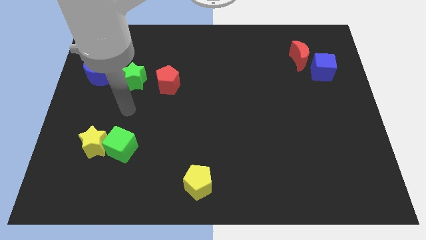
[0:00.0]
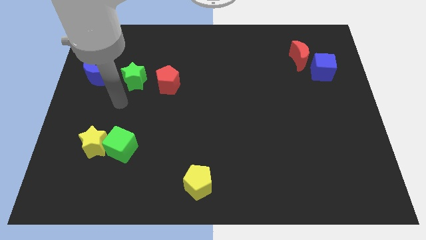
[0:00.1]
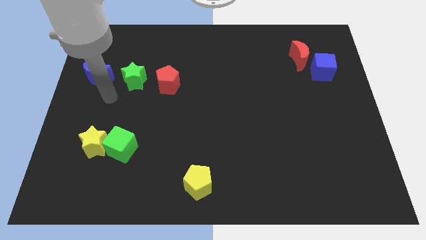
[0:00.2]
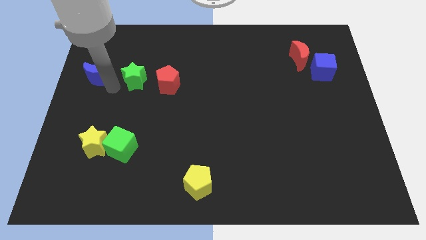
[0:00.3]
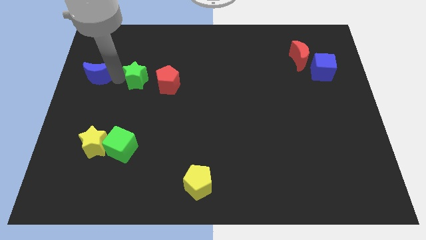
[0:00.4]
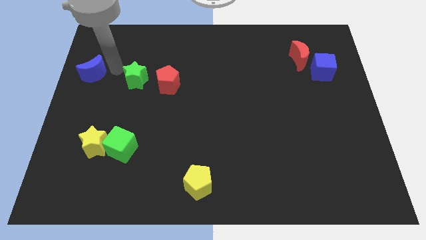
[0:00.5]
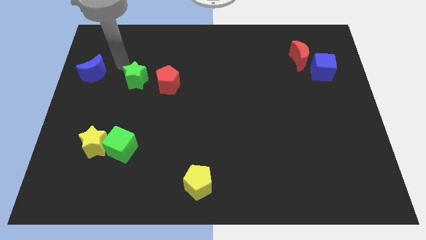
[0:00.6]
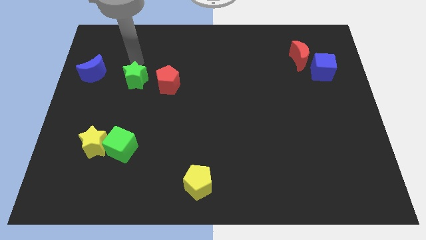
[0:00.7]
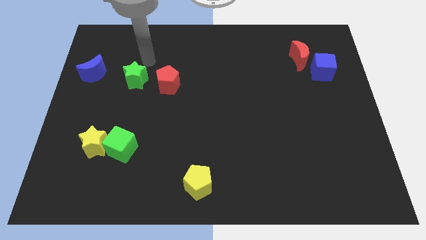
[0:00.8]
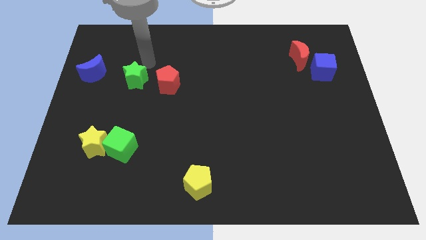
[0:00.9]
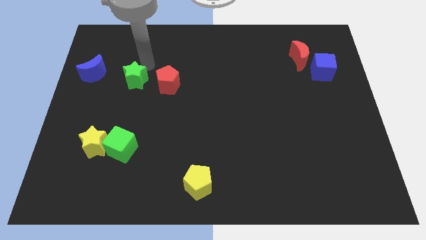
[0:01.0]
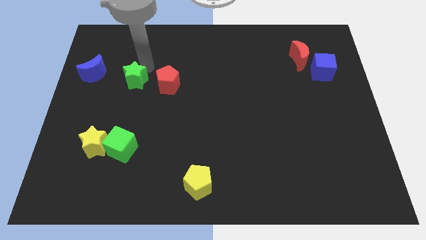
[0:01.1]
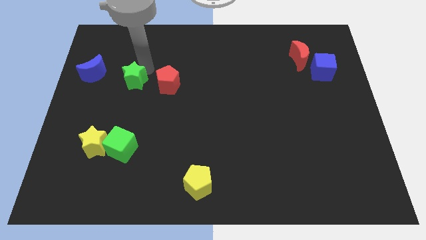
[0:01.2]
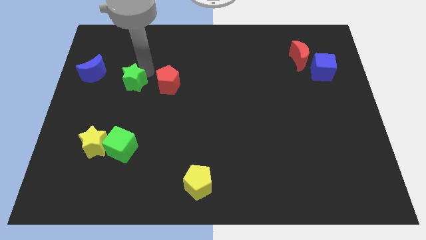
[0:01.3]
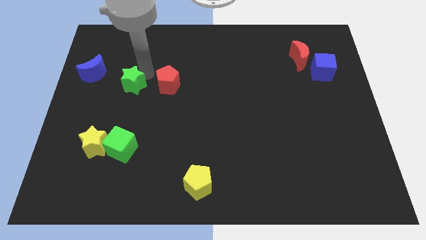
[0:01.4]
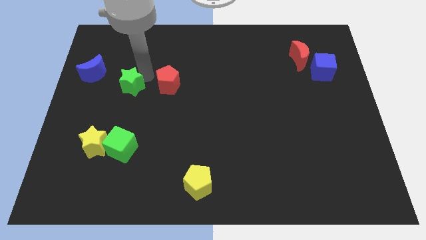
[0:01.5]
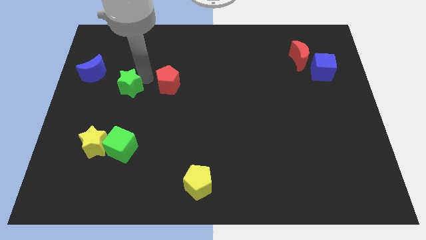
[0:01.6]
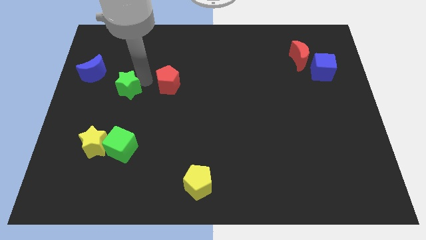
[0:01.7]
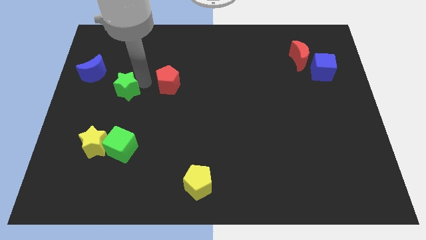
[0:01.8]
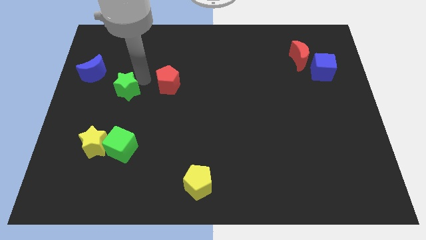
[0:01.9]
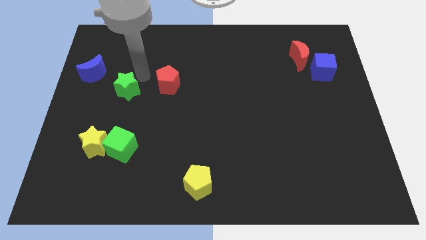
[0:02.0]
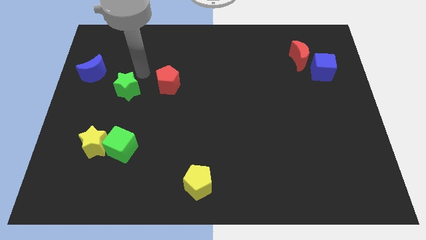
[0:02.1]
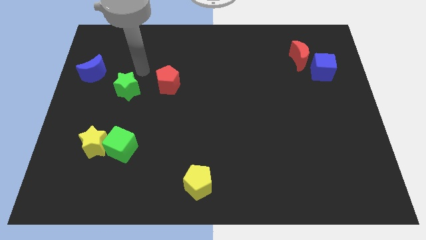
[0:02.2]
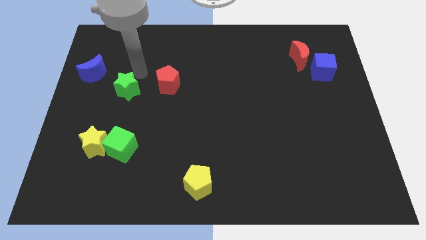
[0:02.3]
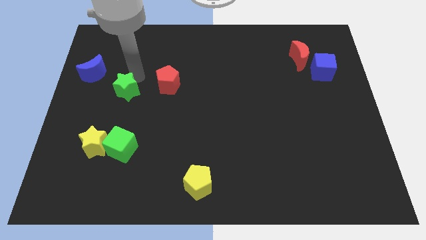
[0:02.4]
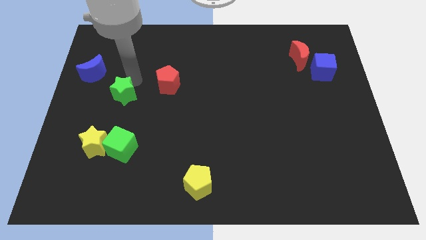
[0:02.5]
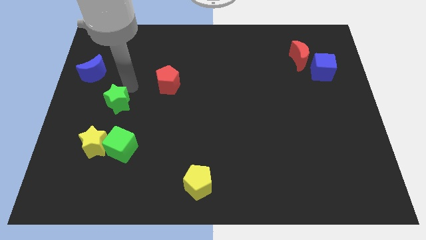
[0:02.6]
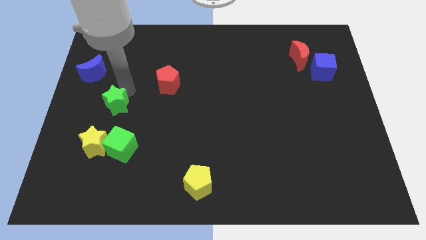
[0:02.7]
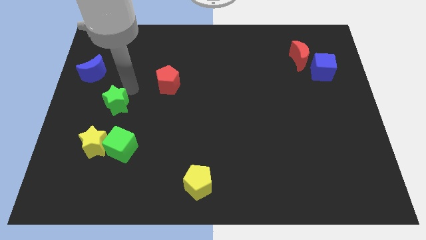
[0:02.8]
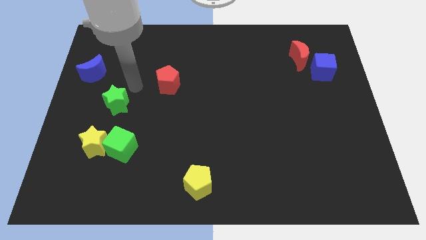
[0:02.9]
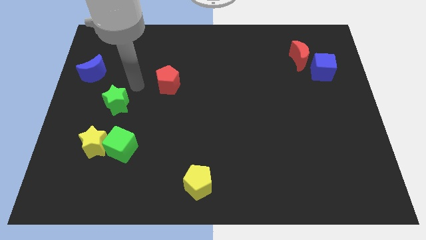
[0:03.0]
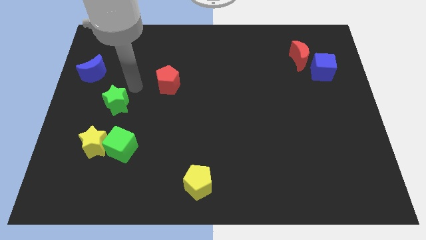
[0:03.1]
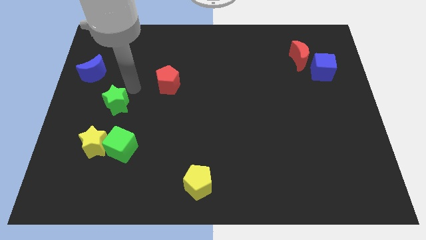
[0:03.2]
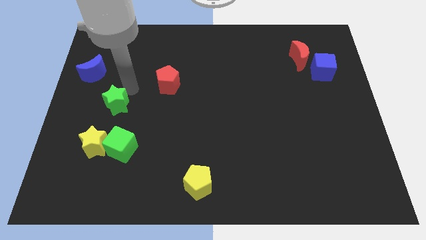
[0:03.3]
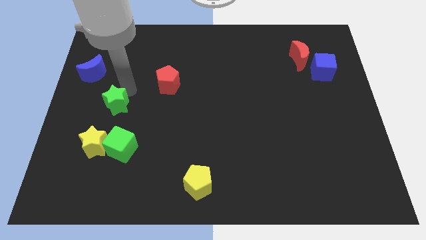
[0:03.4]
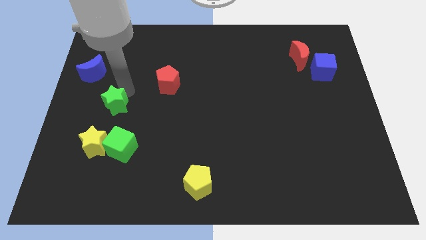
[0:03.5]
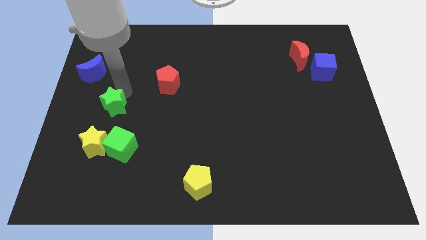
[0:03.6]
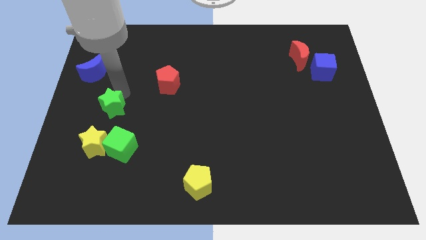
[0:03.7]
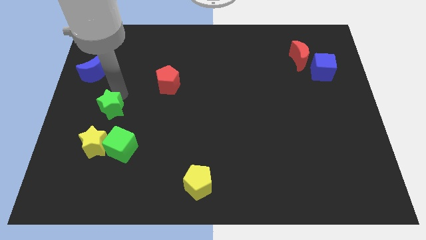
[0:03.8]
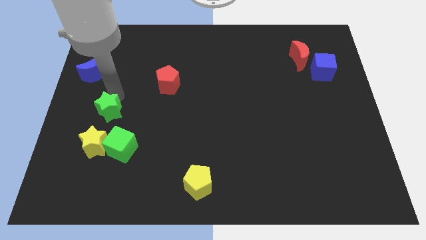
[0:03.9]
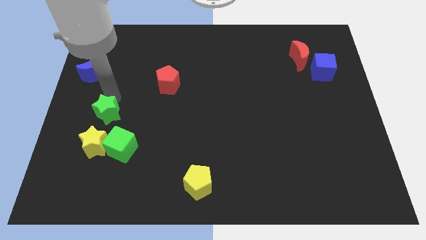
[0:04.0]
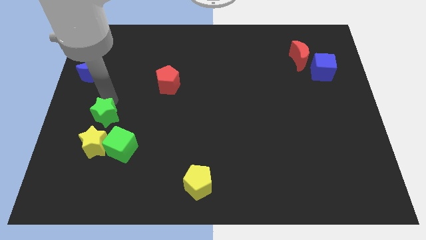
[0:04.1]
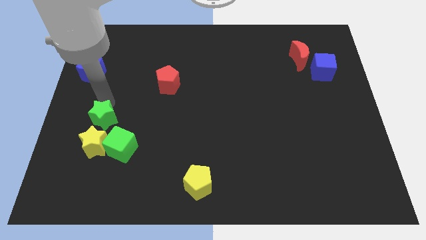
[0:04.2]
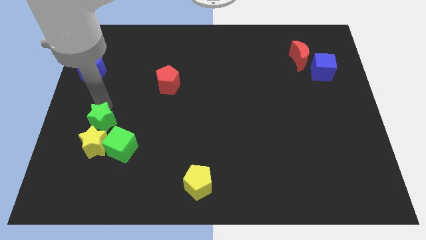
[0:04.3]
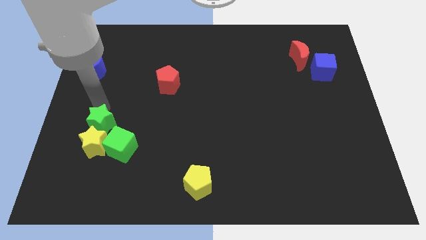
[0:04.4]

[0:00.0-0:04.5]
push the green star to the yellow star
